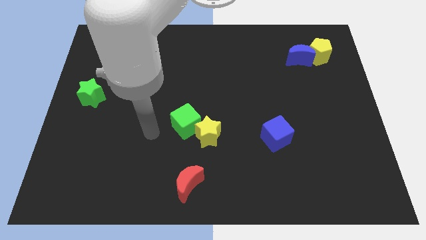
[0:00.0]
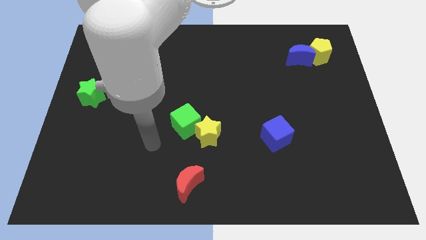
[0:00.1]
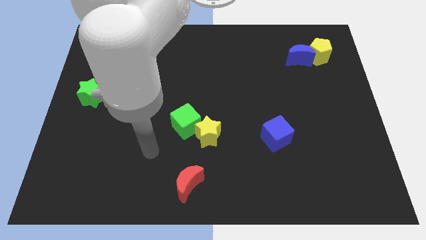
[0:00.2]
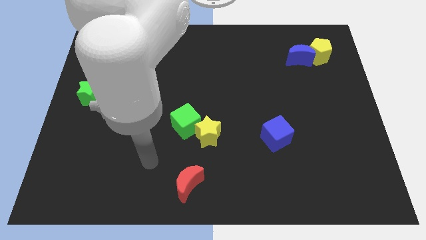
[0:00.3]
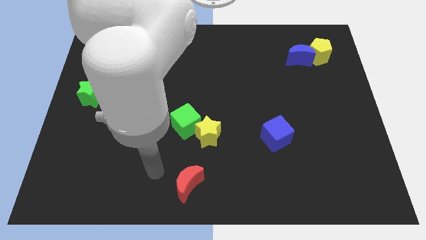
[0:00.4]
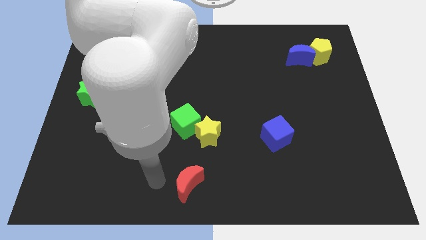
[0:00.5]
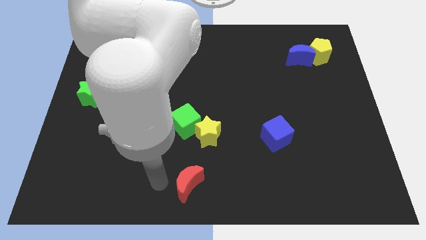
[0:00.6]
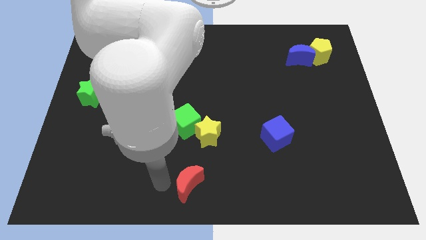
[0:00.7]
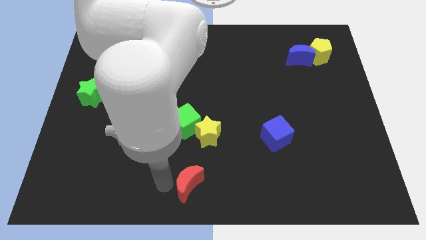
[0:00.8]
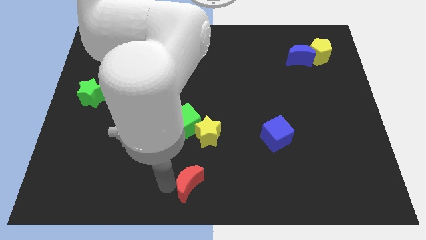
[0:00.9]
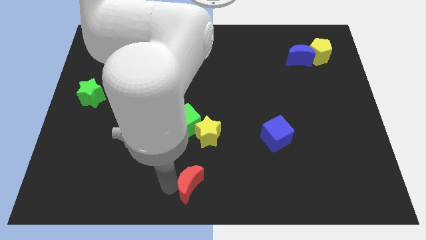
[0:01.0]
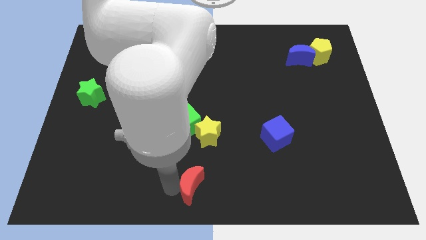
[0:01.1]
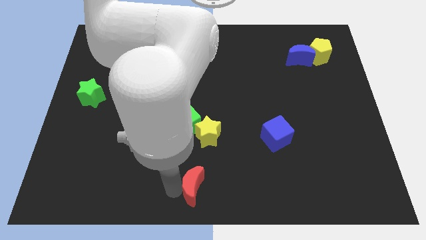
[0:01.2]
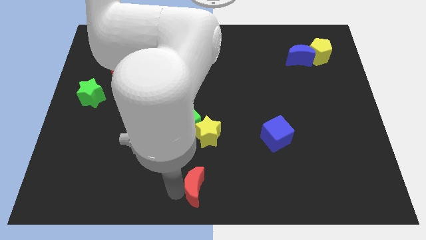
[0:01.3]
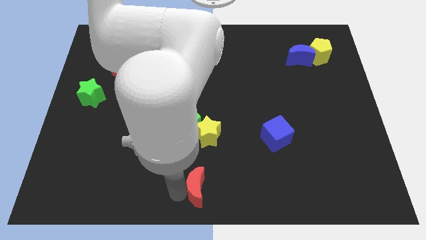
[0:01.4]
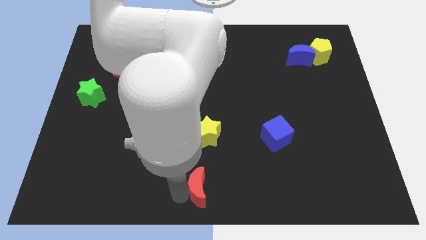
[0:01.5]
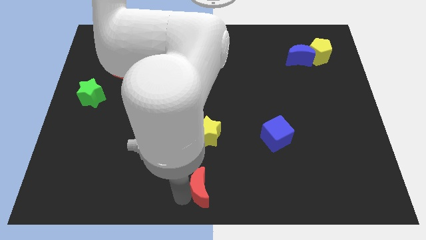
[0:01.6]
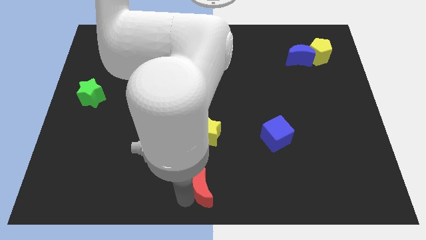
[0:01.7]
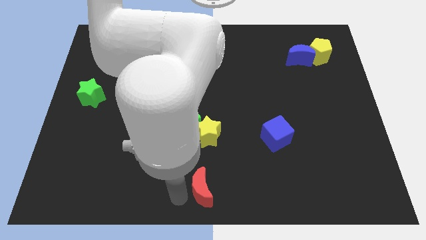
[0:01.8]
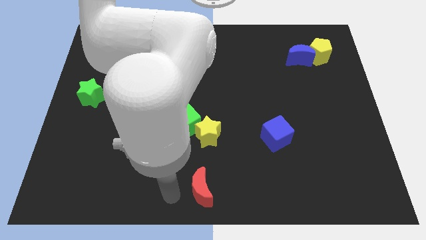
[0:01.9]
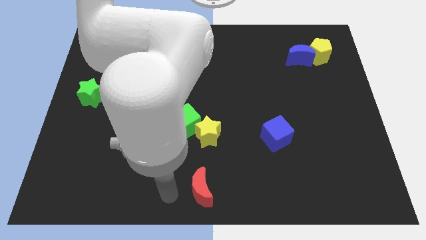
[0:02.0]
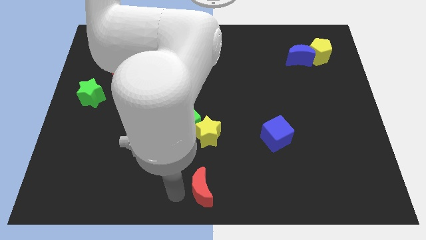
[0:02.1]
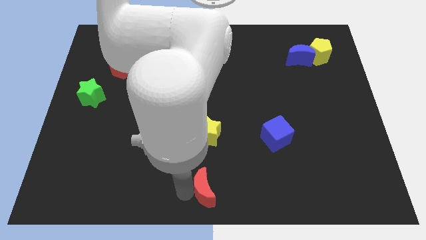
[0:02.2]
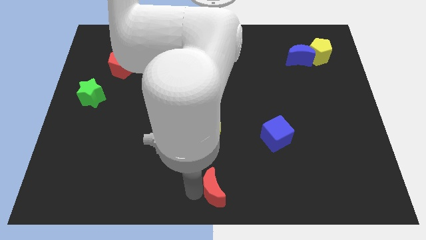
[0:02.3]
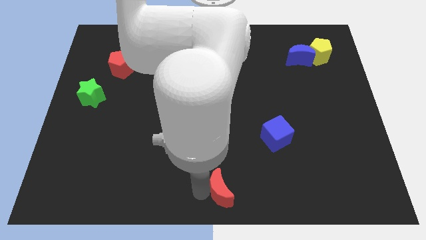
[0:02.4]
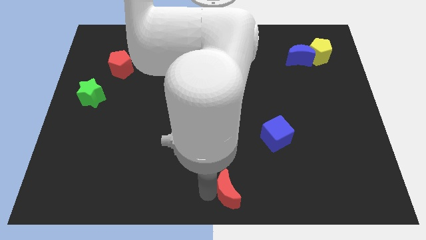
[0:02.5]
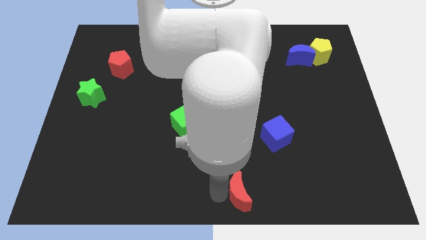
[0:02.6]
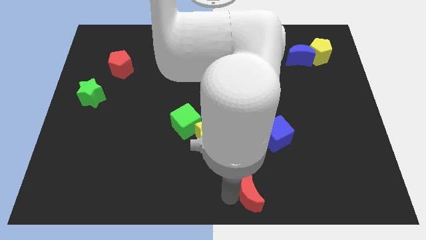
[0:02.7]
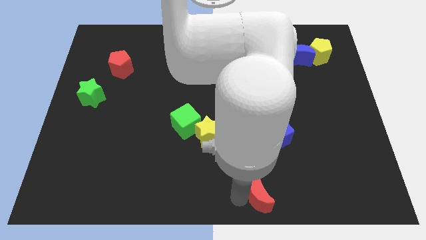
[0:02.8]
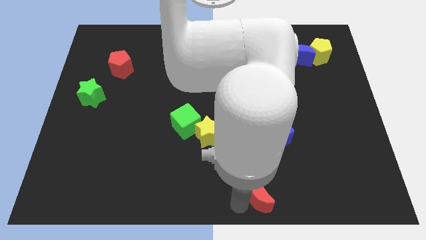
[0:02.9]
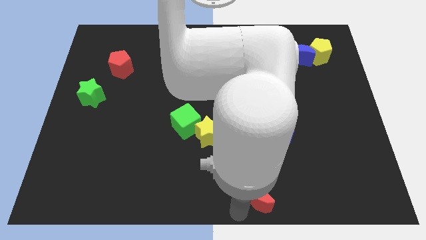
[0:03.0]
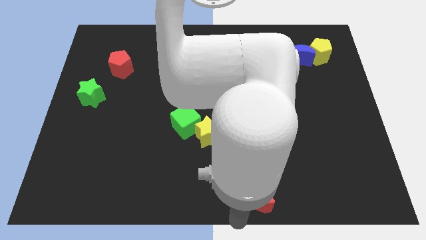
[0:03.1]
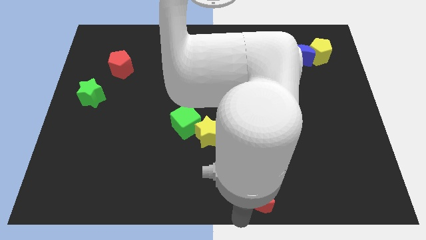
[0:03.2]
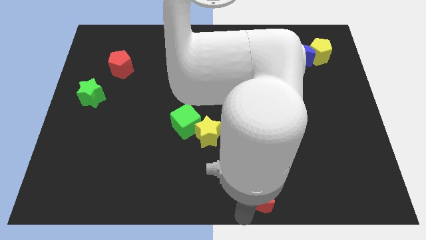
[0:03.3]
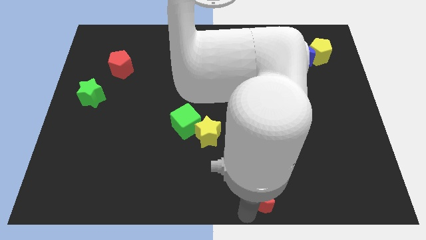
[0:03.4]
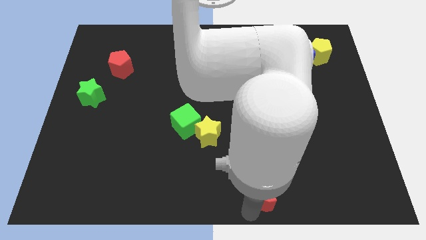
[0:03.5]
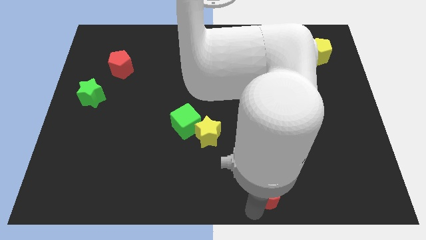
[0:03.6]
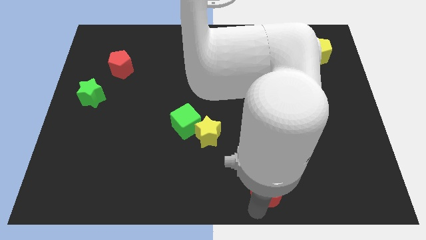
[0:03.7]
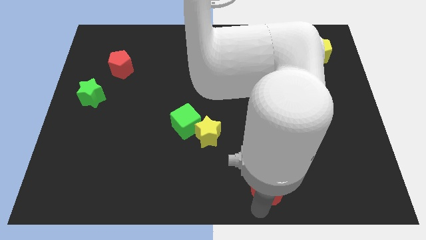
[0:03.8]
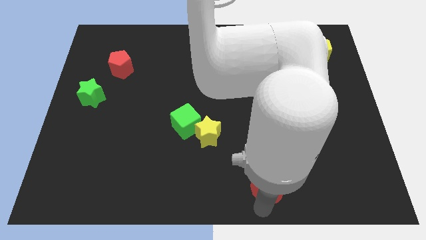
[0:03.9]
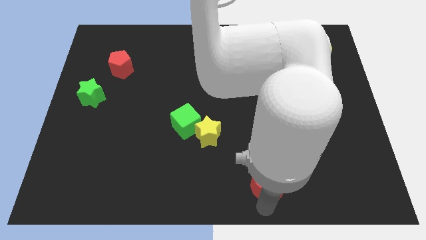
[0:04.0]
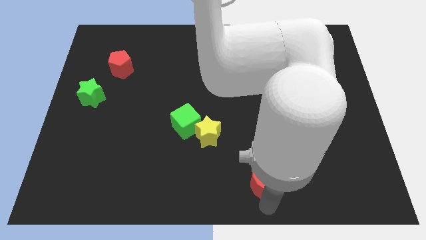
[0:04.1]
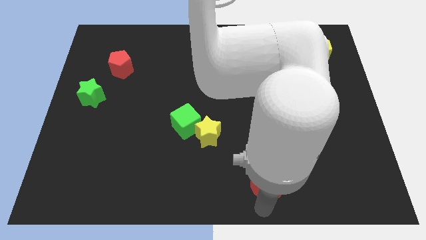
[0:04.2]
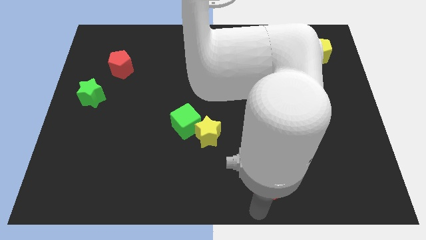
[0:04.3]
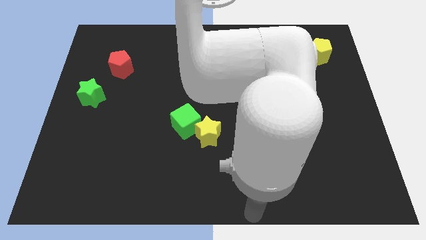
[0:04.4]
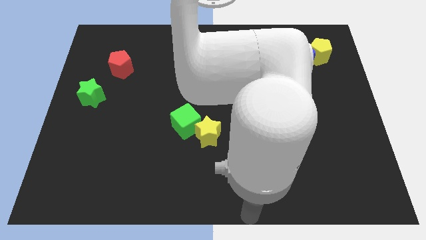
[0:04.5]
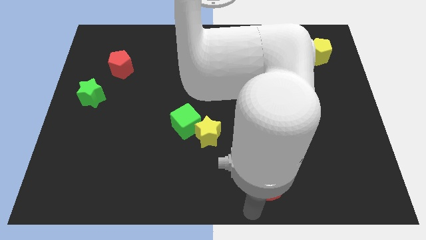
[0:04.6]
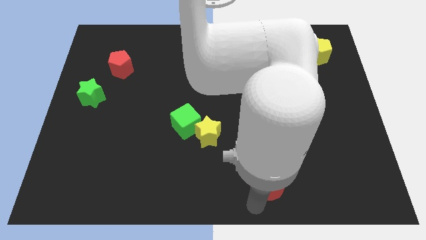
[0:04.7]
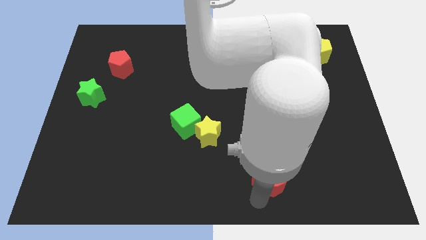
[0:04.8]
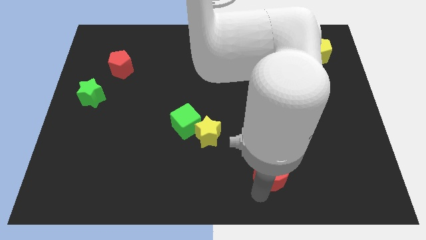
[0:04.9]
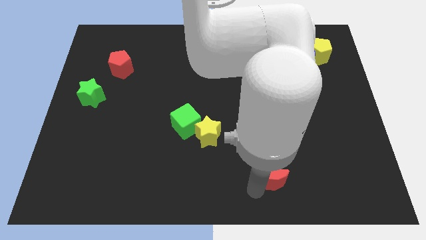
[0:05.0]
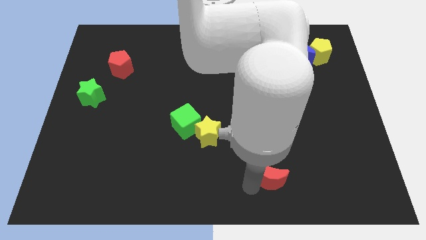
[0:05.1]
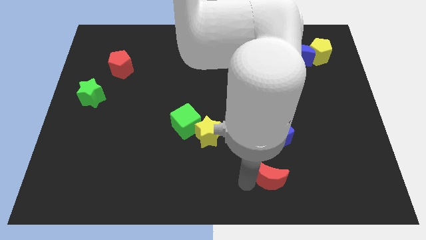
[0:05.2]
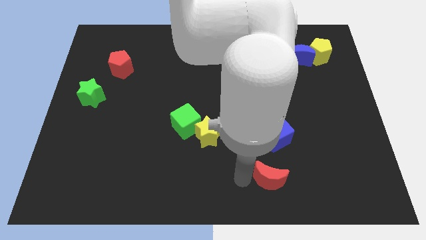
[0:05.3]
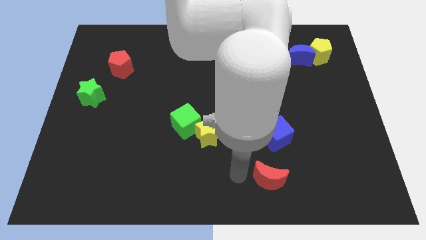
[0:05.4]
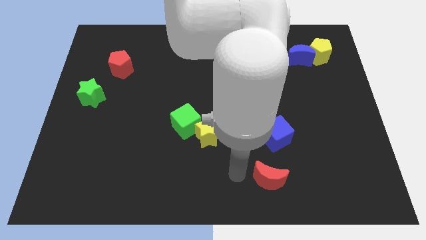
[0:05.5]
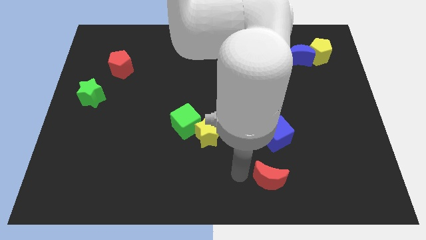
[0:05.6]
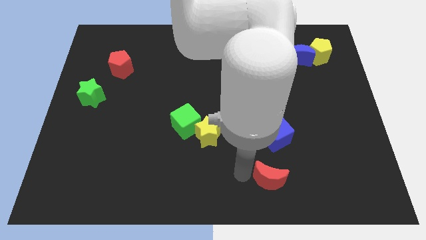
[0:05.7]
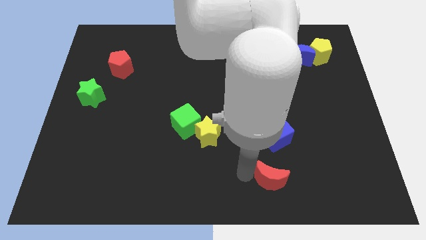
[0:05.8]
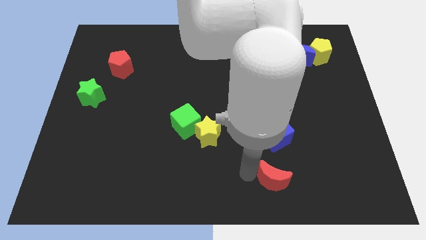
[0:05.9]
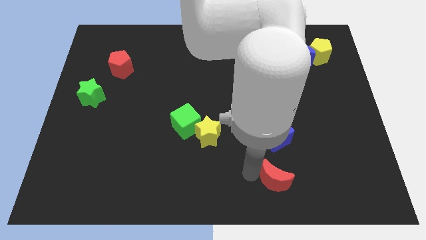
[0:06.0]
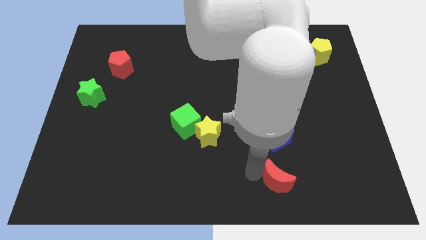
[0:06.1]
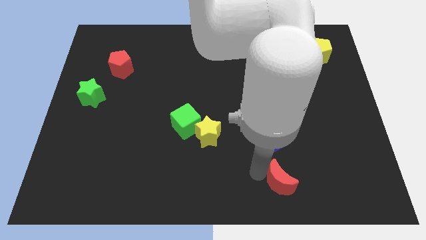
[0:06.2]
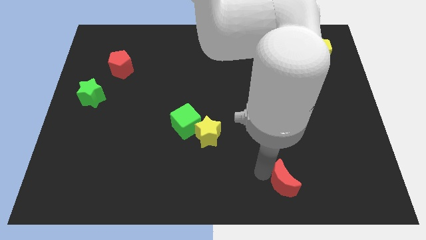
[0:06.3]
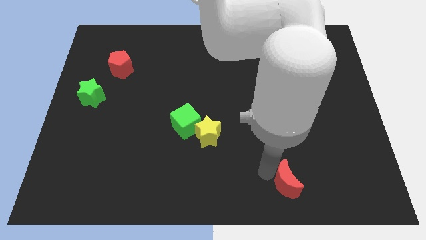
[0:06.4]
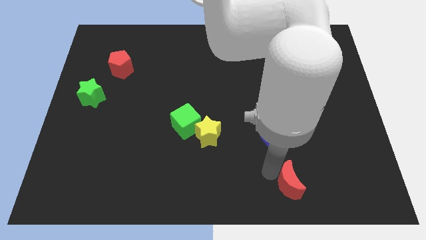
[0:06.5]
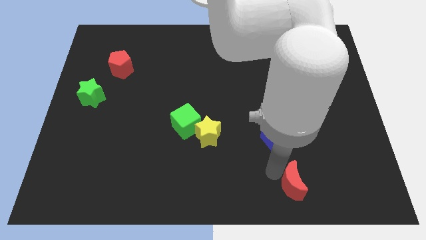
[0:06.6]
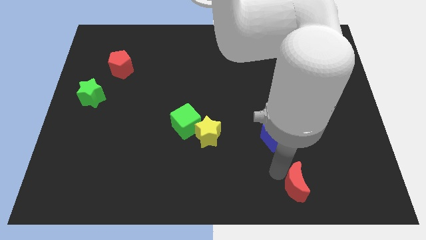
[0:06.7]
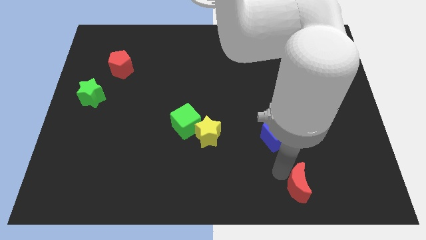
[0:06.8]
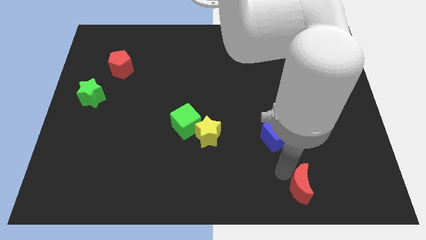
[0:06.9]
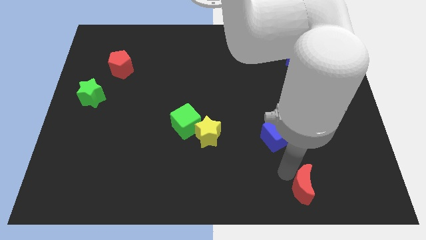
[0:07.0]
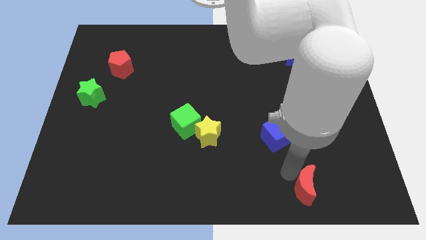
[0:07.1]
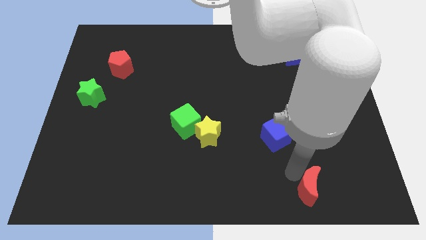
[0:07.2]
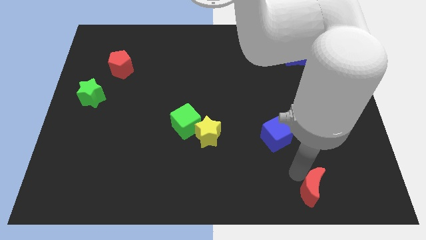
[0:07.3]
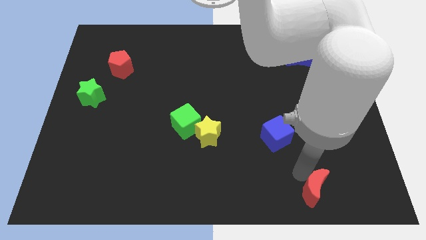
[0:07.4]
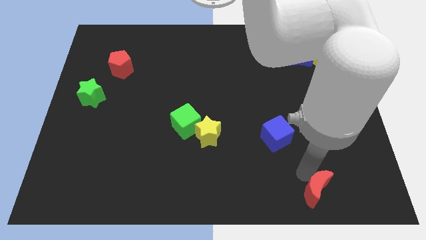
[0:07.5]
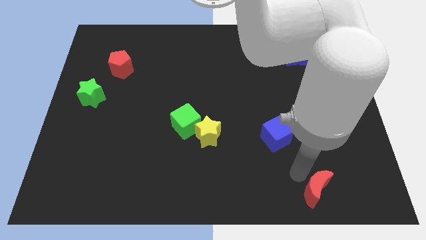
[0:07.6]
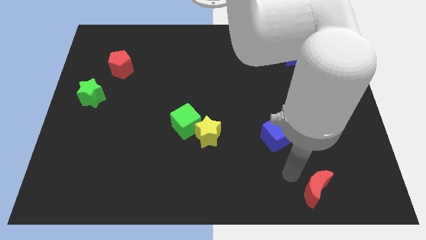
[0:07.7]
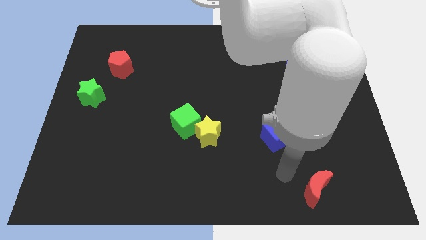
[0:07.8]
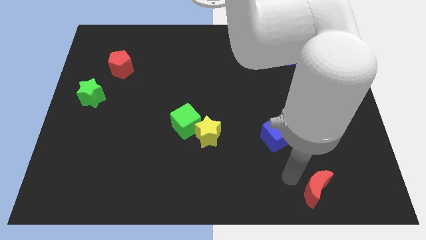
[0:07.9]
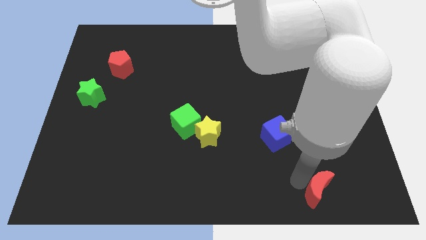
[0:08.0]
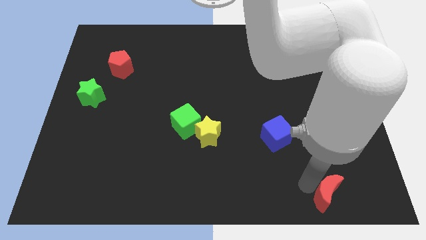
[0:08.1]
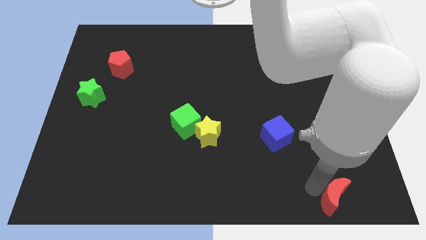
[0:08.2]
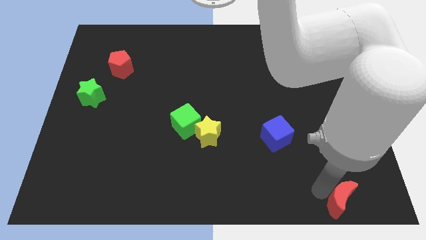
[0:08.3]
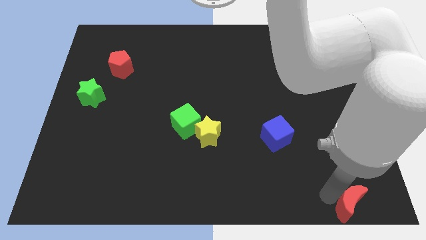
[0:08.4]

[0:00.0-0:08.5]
move the red moon to the bottom right corner
